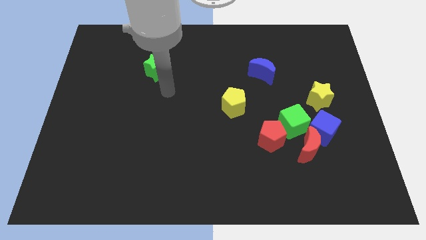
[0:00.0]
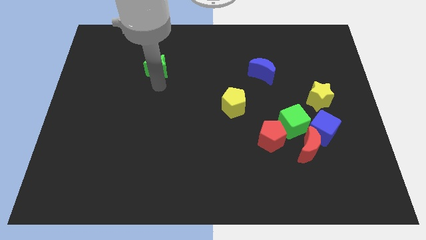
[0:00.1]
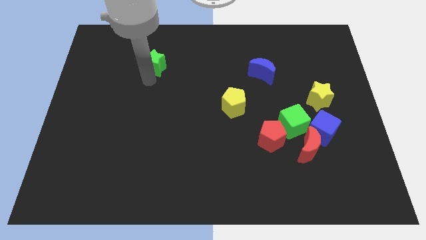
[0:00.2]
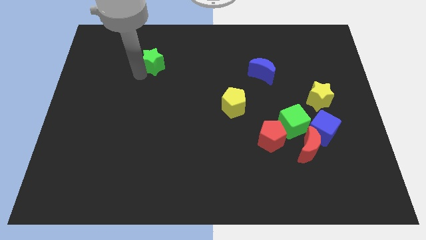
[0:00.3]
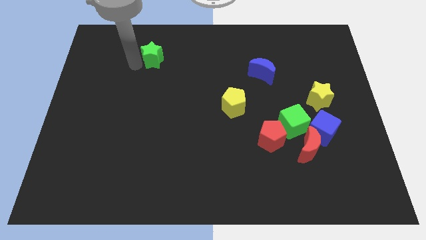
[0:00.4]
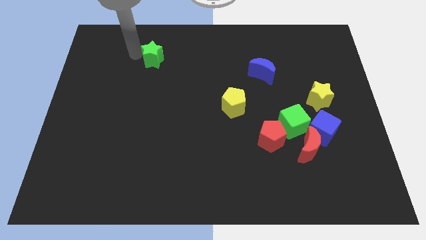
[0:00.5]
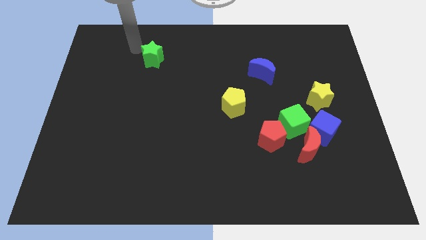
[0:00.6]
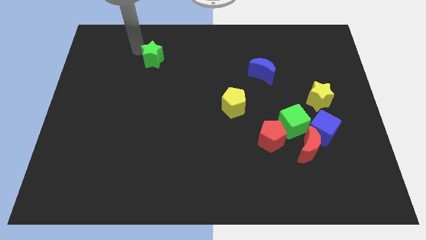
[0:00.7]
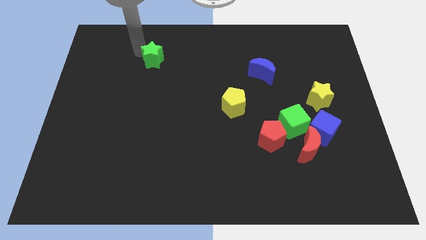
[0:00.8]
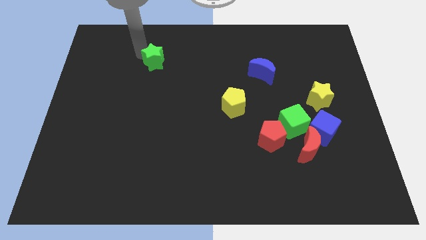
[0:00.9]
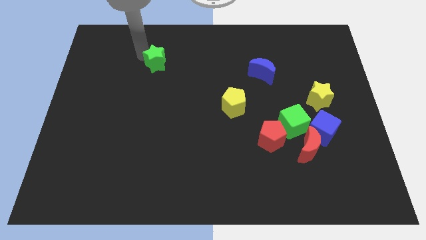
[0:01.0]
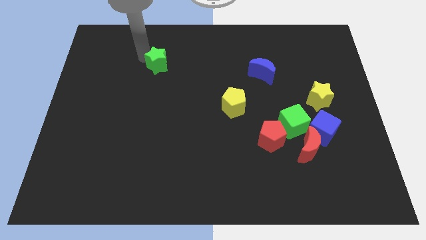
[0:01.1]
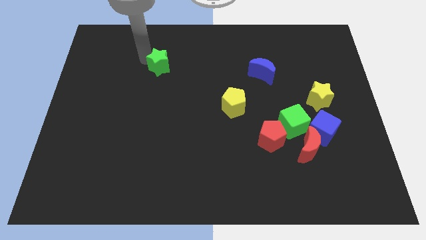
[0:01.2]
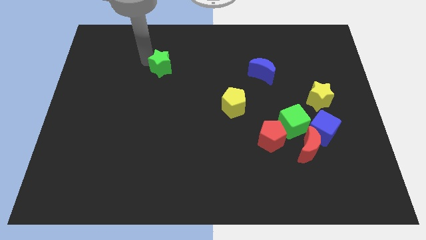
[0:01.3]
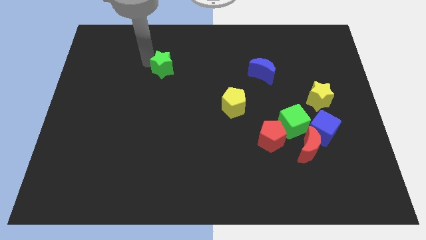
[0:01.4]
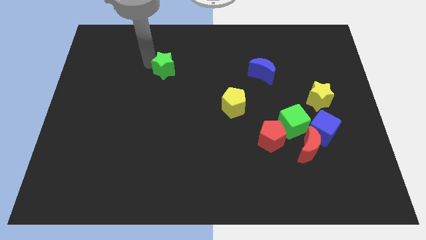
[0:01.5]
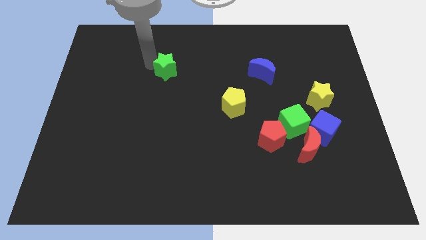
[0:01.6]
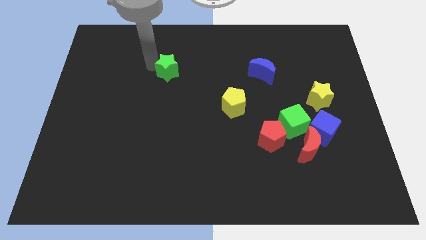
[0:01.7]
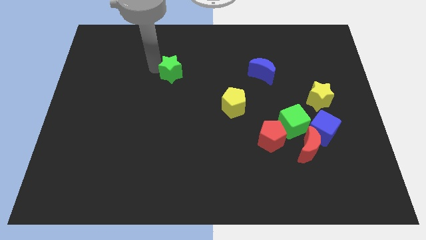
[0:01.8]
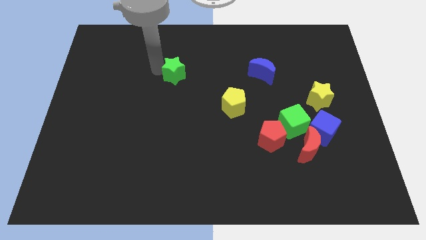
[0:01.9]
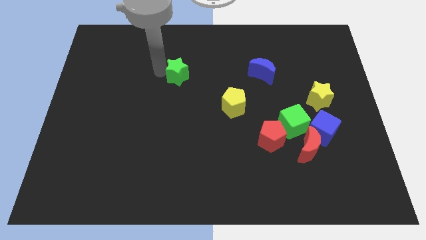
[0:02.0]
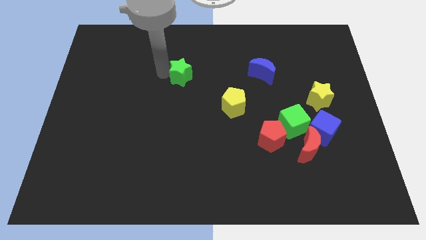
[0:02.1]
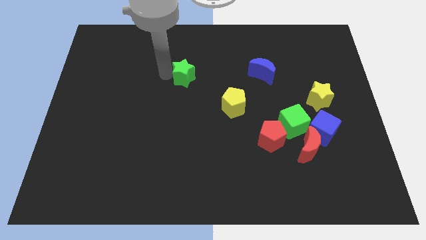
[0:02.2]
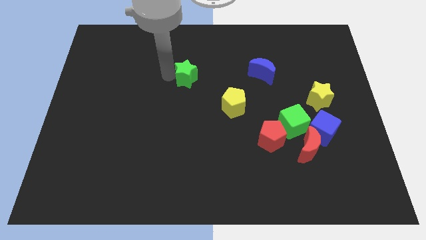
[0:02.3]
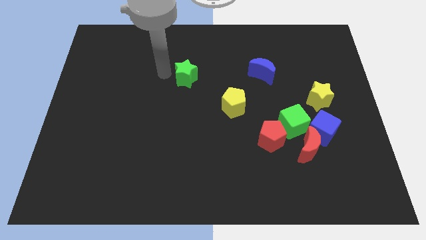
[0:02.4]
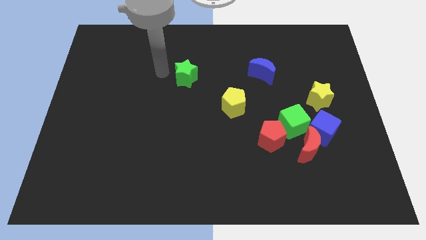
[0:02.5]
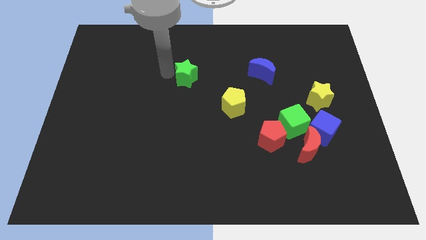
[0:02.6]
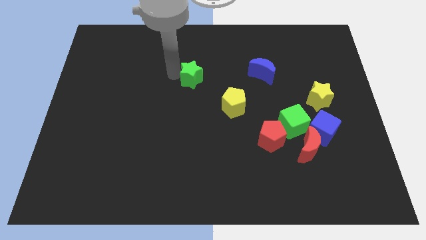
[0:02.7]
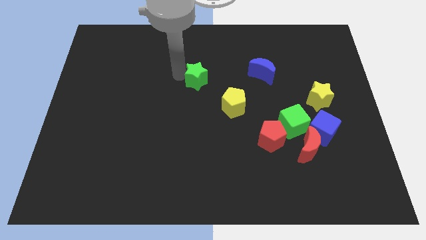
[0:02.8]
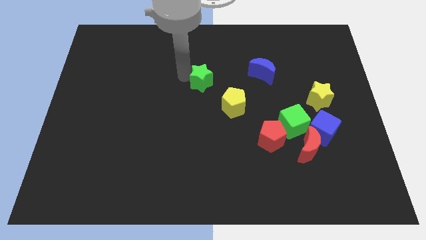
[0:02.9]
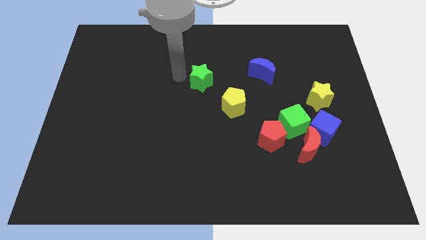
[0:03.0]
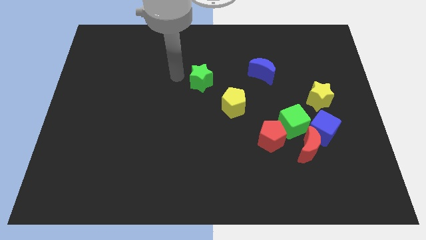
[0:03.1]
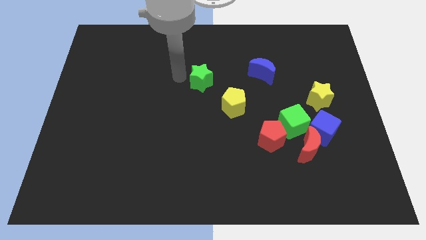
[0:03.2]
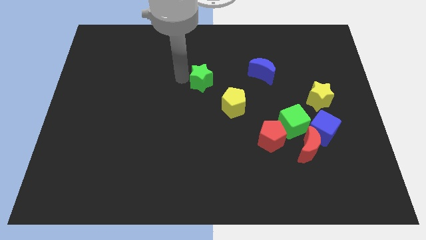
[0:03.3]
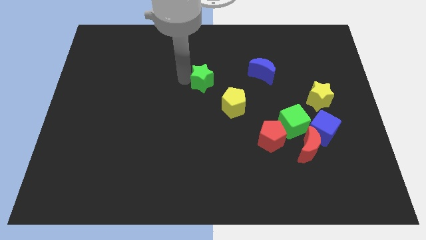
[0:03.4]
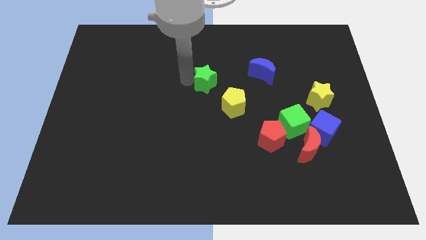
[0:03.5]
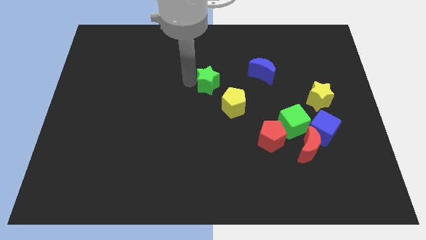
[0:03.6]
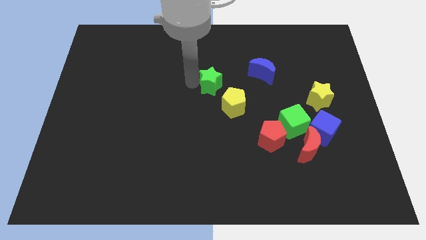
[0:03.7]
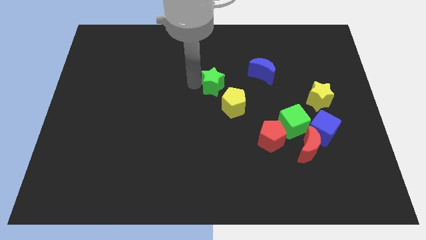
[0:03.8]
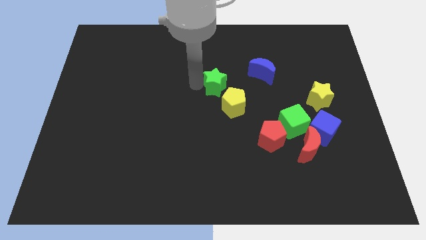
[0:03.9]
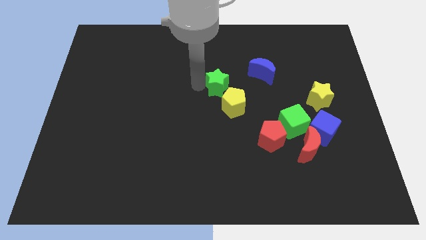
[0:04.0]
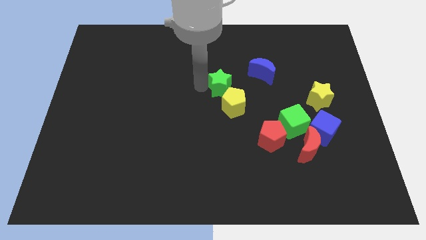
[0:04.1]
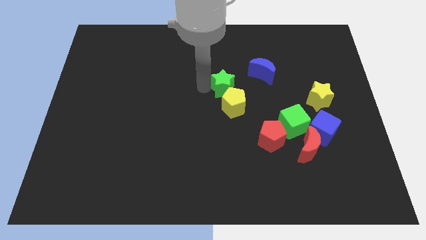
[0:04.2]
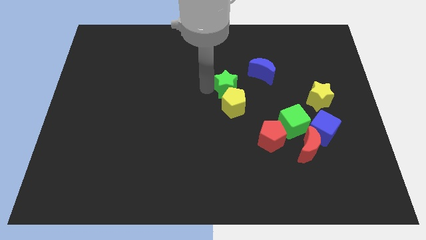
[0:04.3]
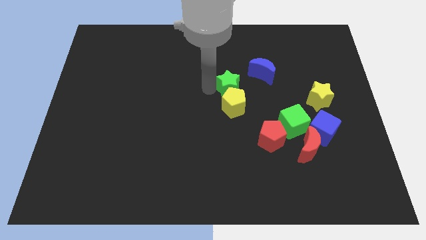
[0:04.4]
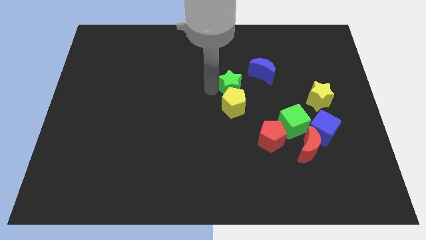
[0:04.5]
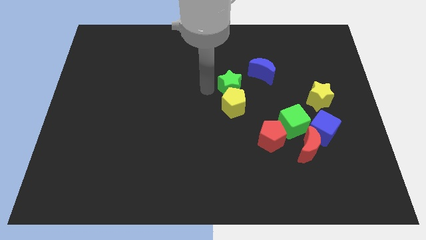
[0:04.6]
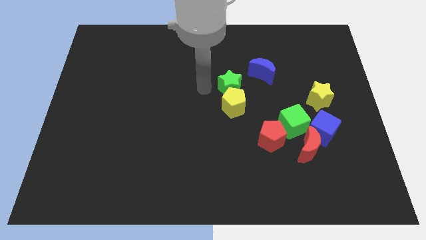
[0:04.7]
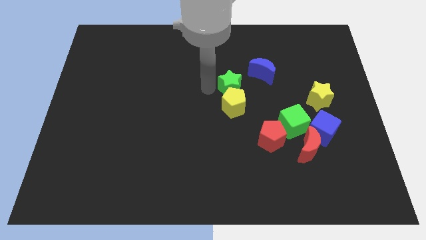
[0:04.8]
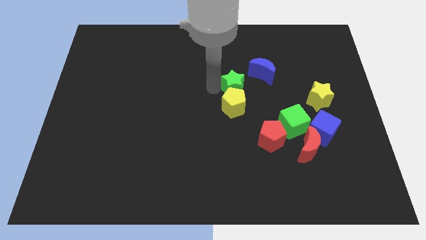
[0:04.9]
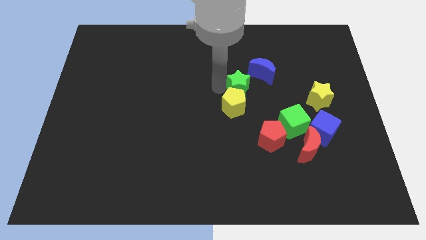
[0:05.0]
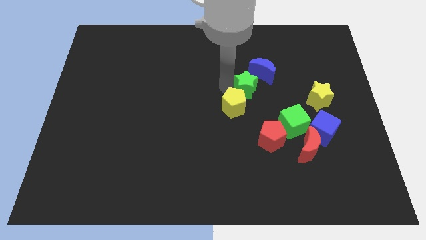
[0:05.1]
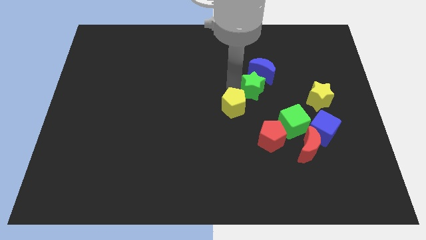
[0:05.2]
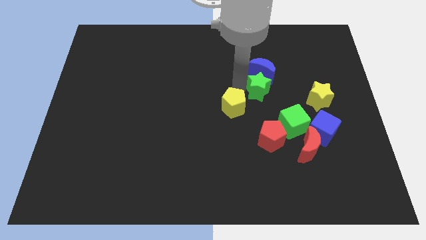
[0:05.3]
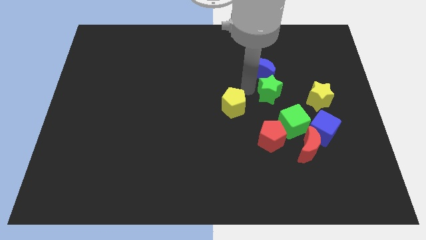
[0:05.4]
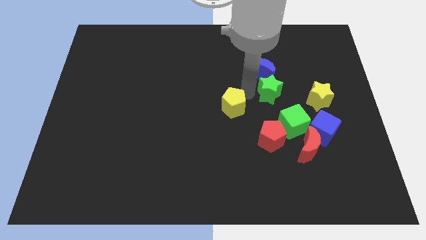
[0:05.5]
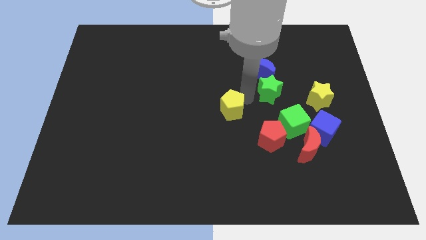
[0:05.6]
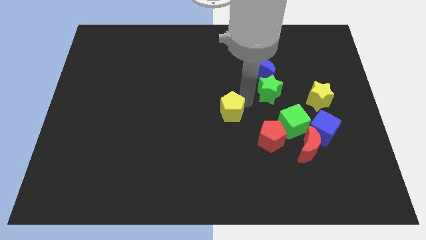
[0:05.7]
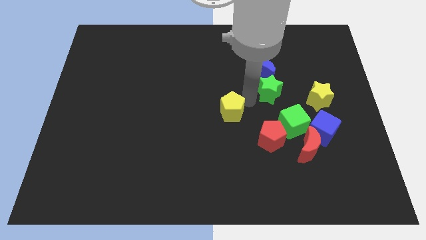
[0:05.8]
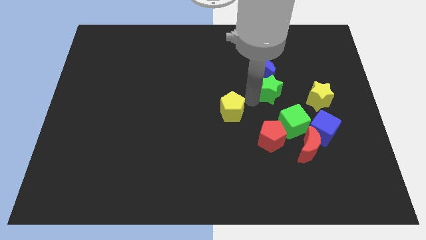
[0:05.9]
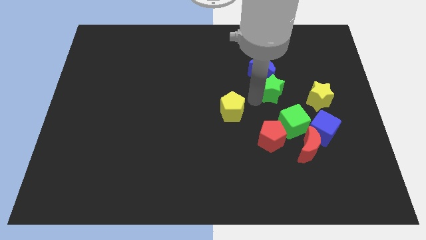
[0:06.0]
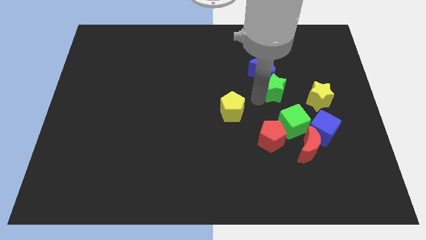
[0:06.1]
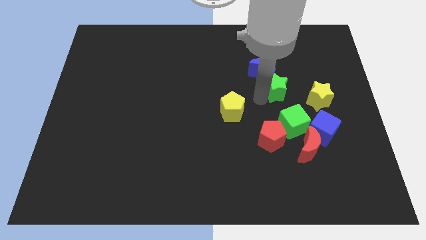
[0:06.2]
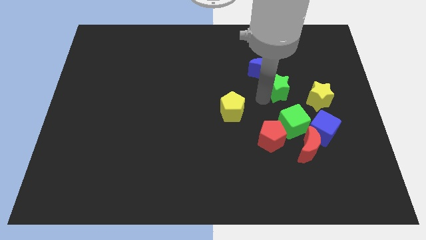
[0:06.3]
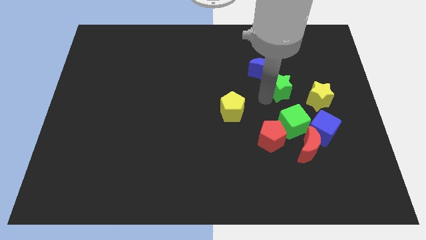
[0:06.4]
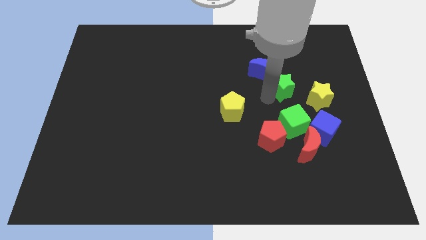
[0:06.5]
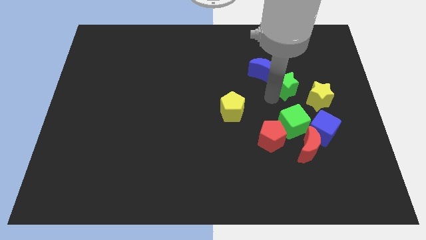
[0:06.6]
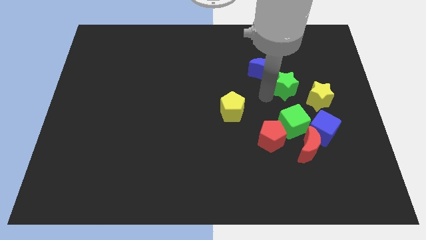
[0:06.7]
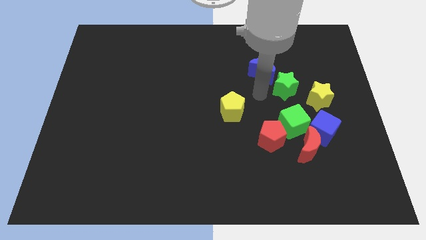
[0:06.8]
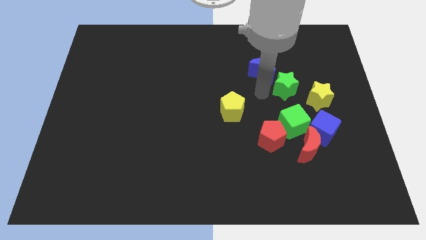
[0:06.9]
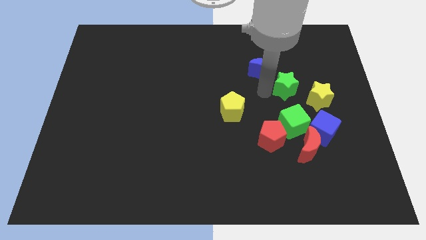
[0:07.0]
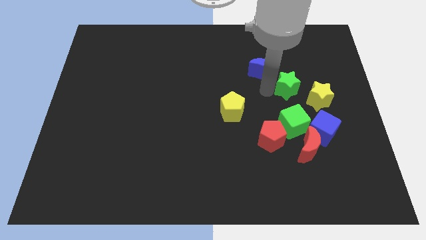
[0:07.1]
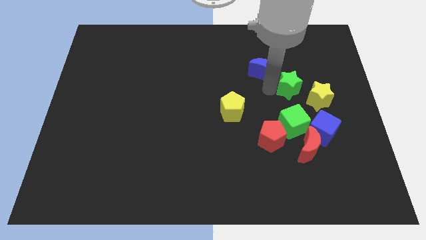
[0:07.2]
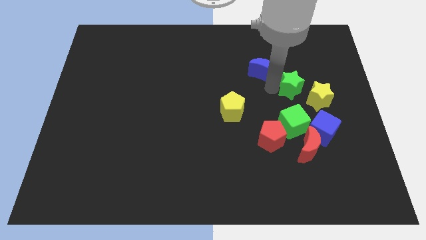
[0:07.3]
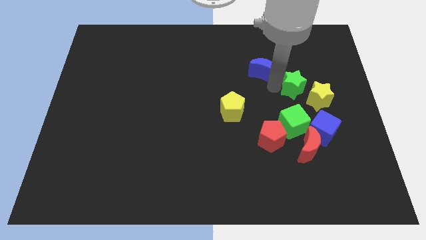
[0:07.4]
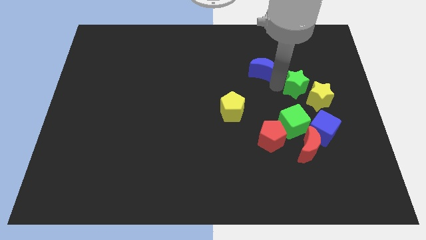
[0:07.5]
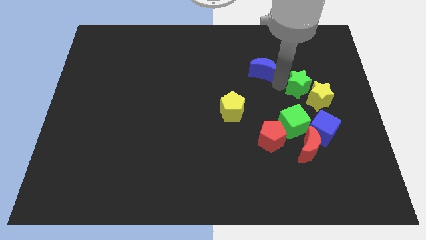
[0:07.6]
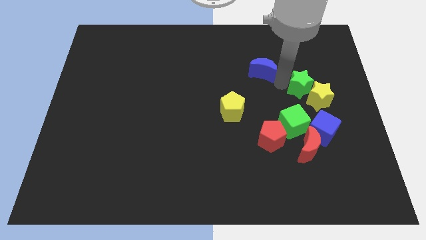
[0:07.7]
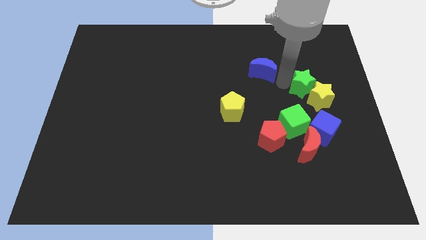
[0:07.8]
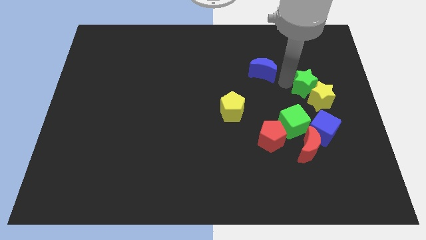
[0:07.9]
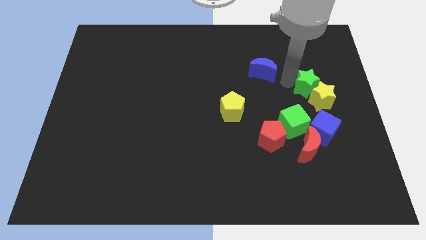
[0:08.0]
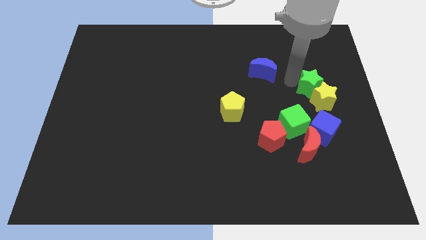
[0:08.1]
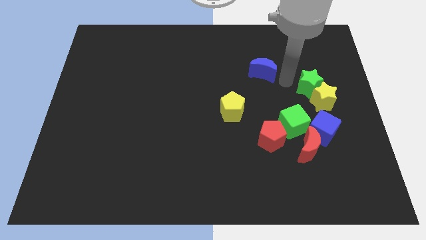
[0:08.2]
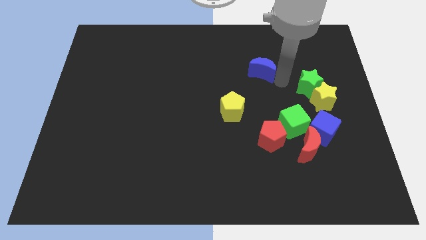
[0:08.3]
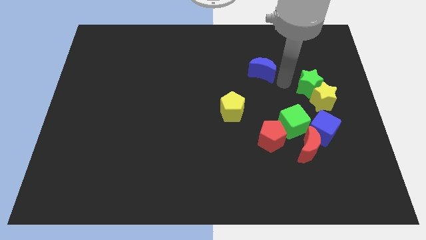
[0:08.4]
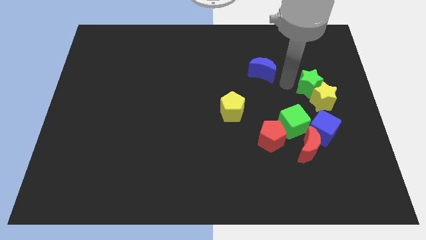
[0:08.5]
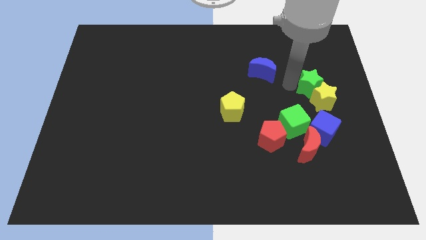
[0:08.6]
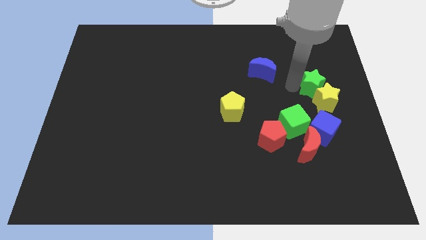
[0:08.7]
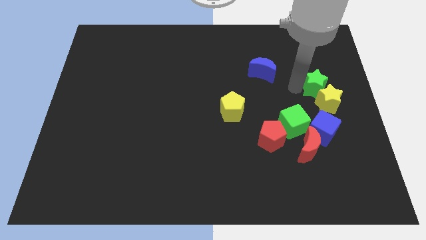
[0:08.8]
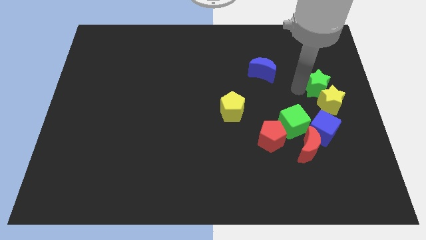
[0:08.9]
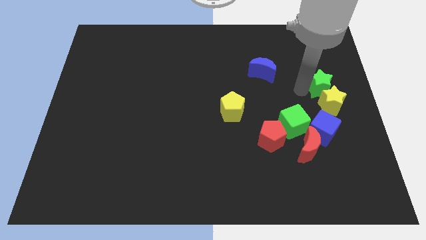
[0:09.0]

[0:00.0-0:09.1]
push the green star to the center right
